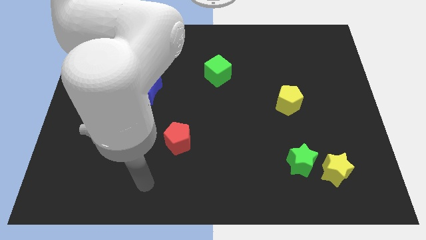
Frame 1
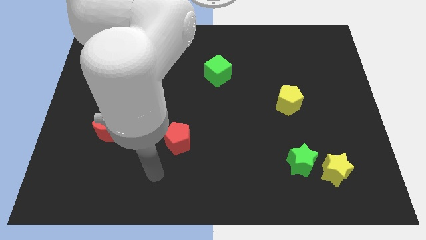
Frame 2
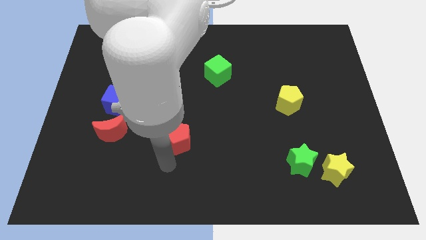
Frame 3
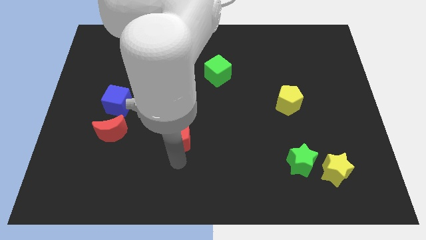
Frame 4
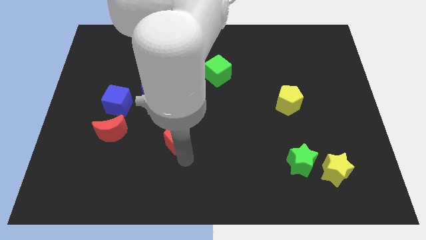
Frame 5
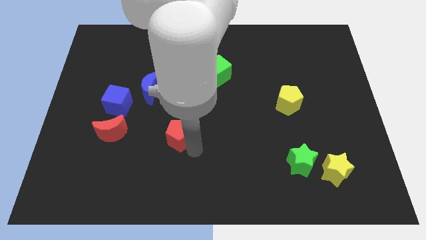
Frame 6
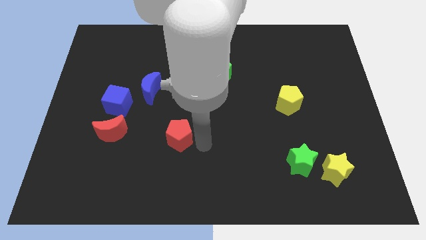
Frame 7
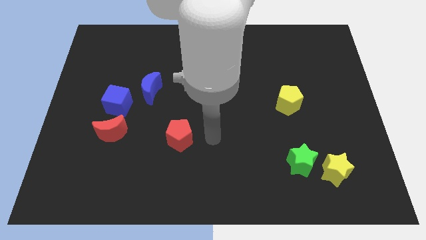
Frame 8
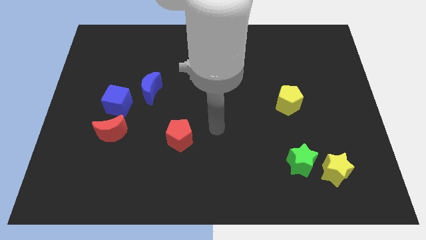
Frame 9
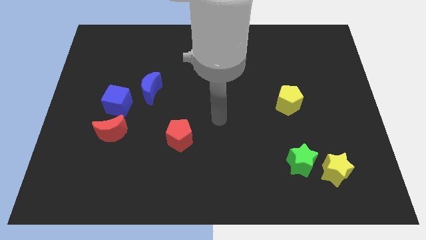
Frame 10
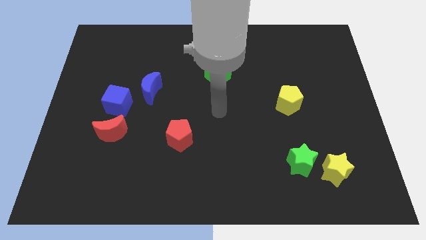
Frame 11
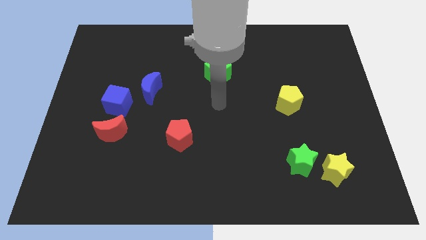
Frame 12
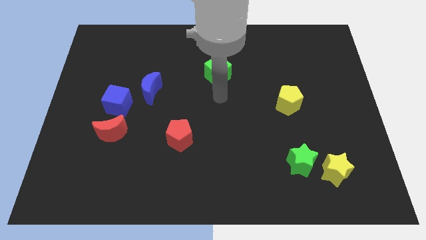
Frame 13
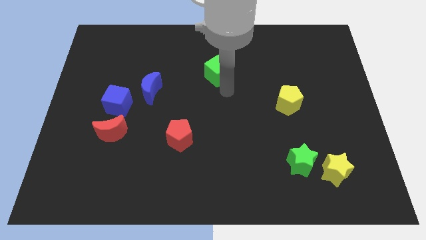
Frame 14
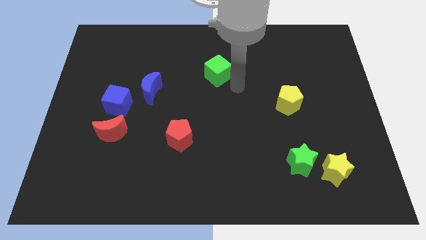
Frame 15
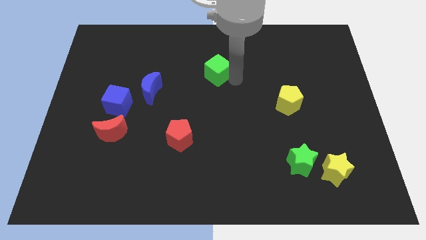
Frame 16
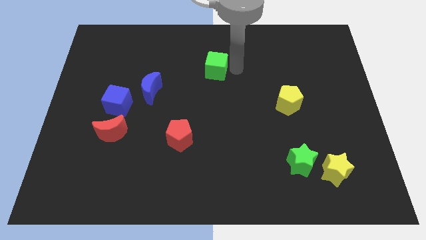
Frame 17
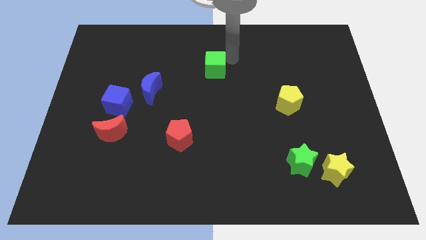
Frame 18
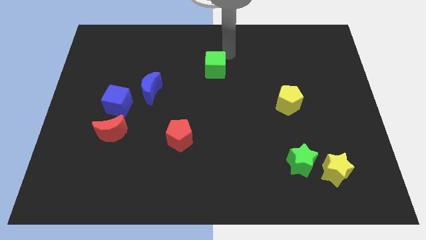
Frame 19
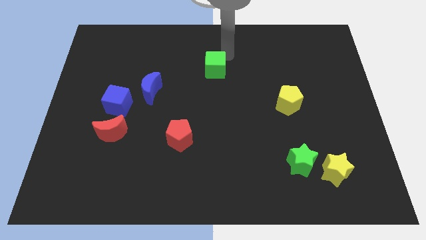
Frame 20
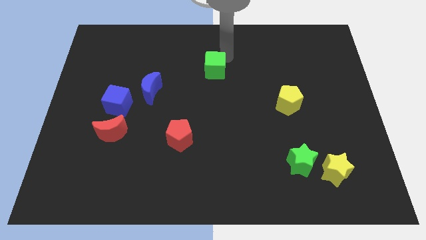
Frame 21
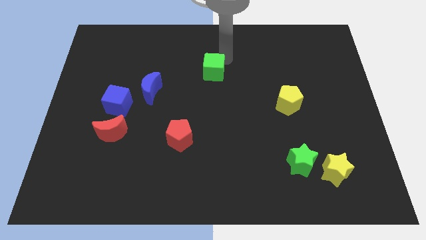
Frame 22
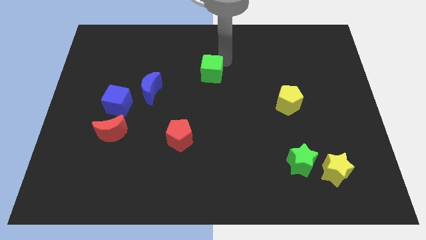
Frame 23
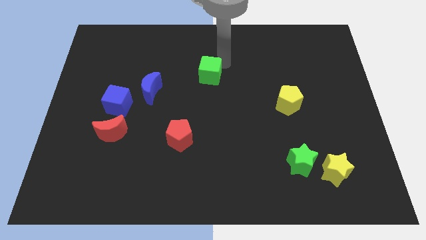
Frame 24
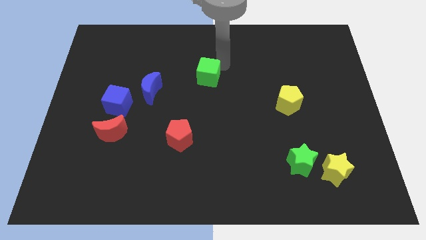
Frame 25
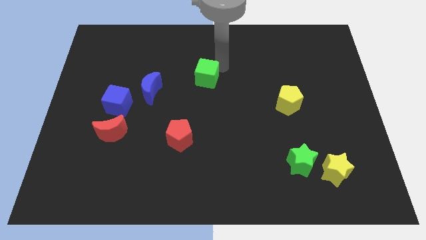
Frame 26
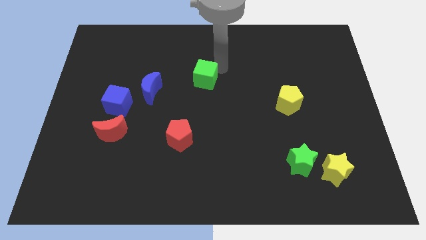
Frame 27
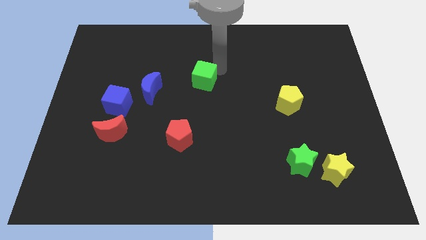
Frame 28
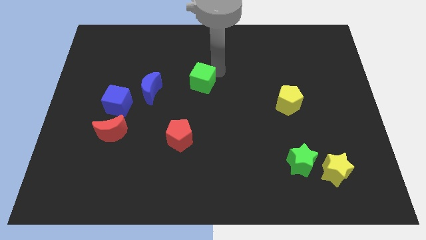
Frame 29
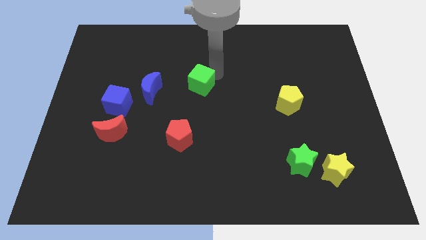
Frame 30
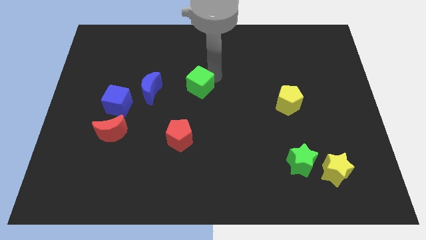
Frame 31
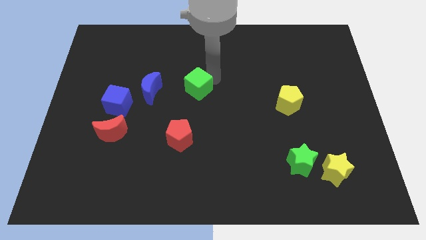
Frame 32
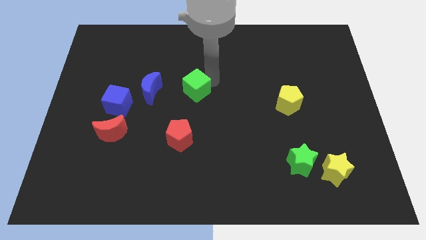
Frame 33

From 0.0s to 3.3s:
move the green cube downwards and then to the left a little bit

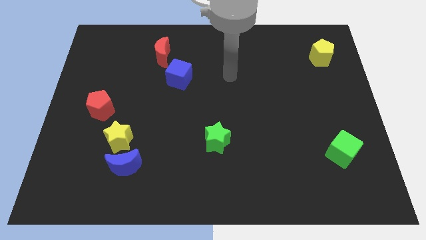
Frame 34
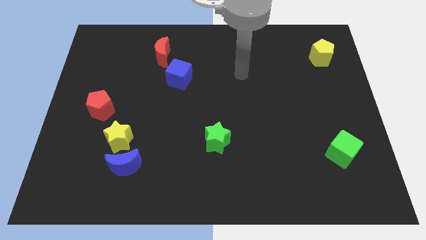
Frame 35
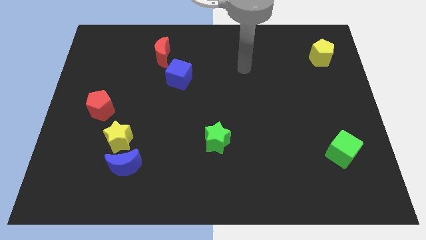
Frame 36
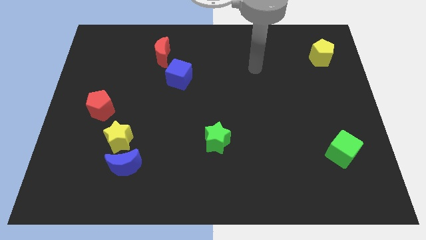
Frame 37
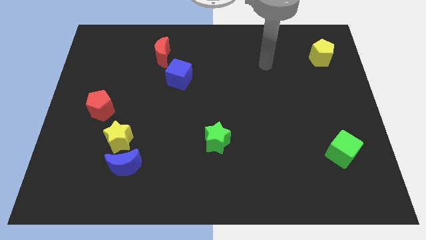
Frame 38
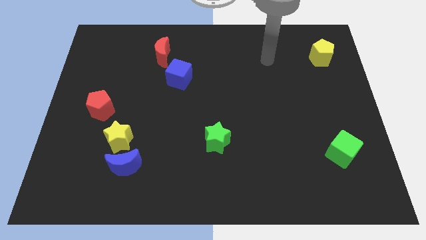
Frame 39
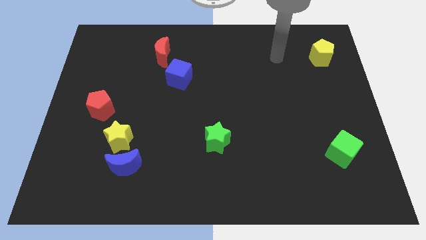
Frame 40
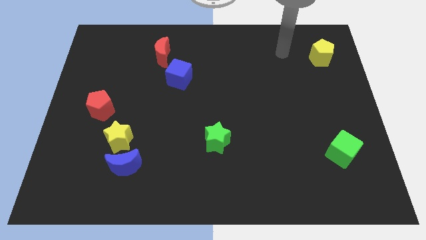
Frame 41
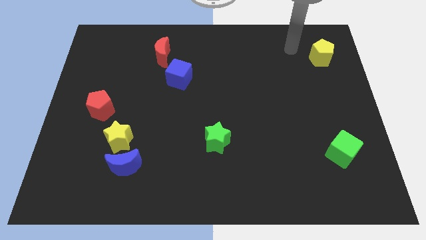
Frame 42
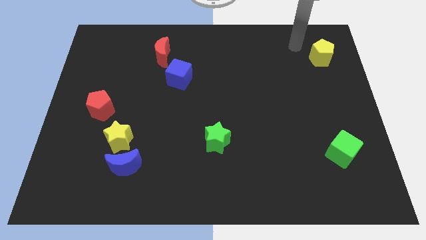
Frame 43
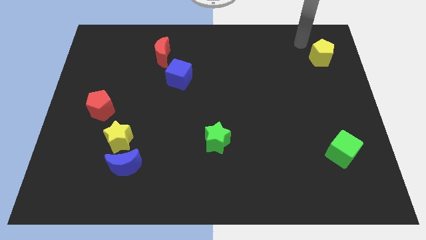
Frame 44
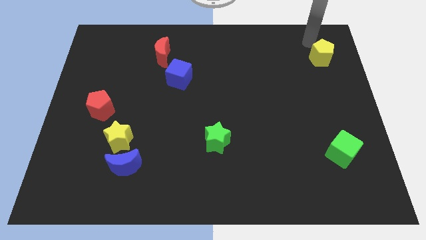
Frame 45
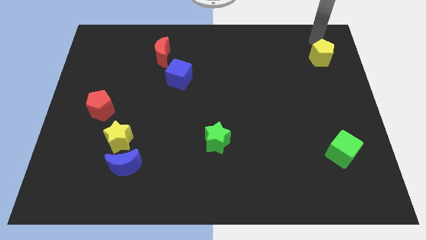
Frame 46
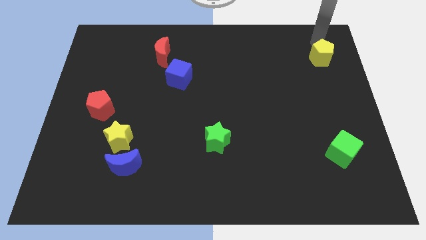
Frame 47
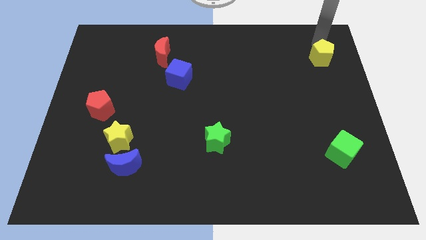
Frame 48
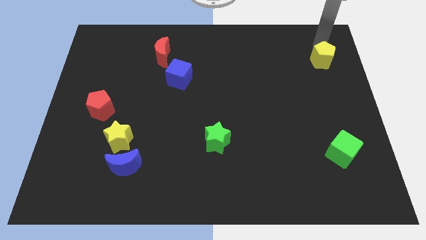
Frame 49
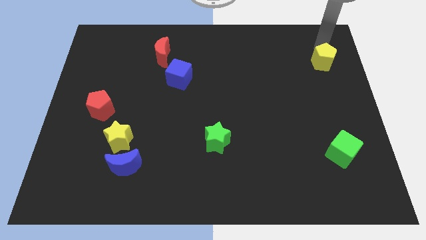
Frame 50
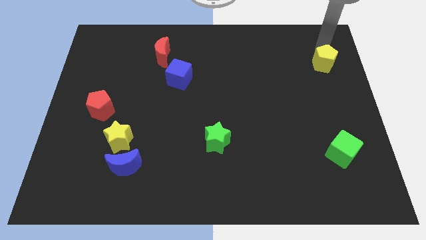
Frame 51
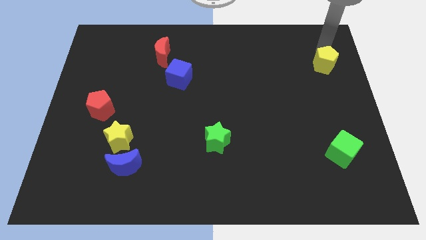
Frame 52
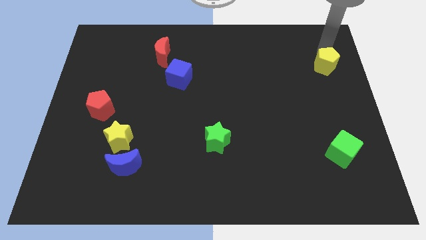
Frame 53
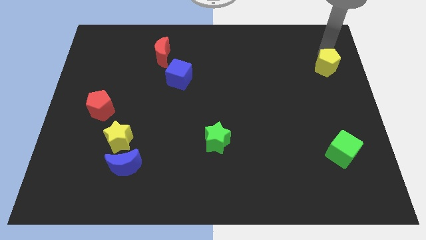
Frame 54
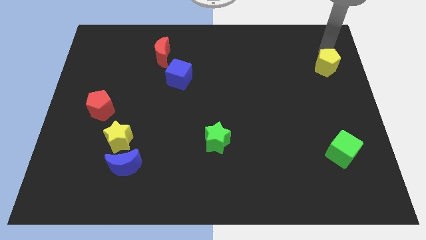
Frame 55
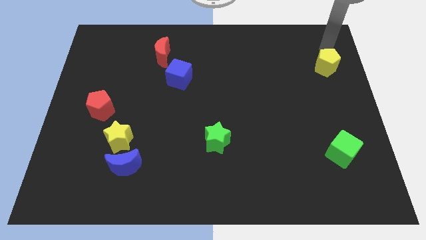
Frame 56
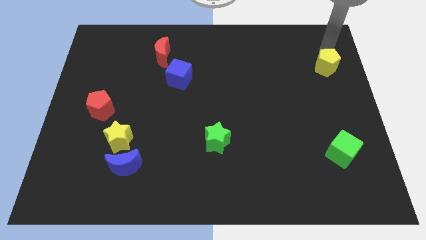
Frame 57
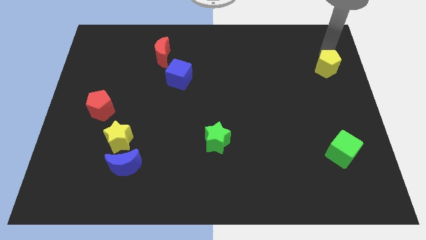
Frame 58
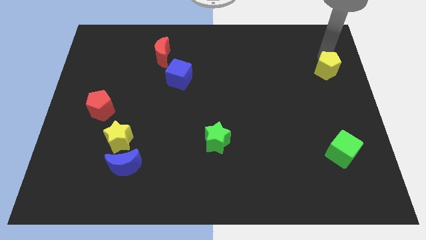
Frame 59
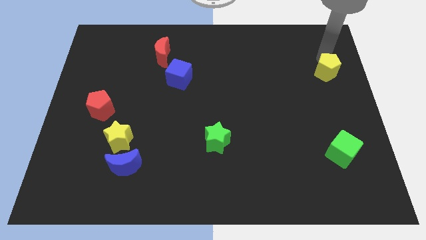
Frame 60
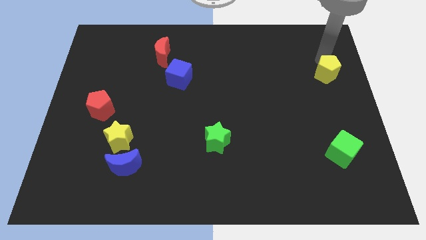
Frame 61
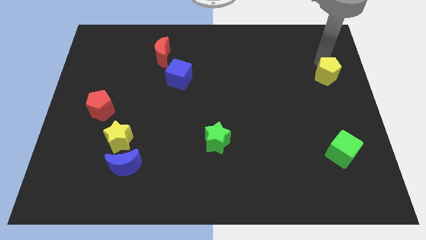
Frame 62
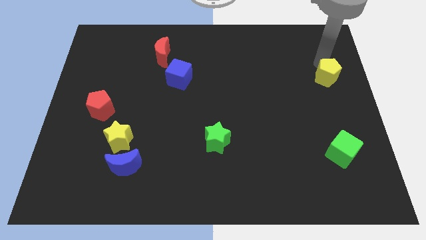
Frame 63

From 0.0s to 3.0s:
slightly push the yellow pentagon downwards

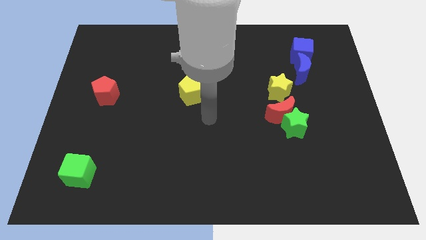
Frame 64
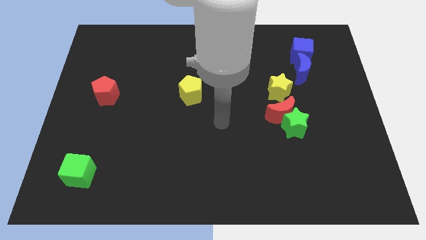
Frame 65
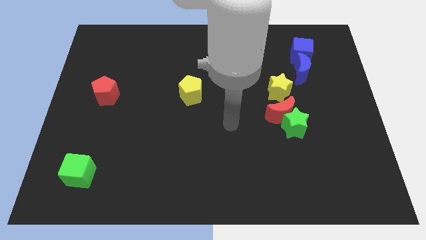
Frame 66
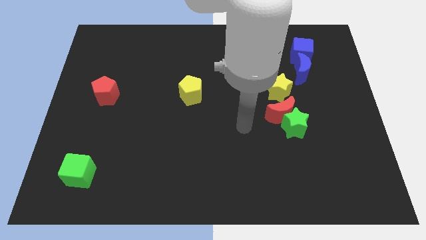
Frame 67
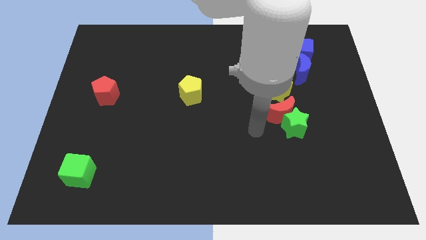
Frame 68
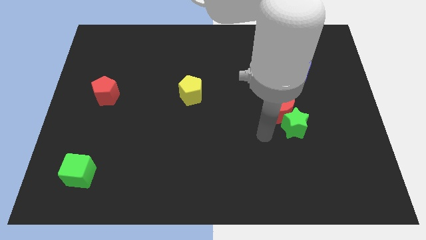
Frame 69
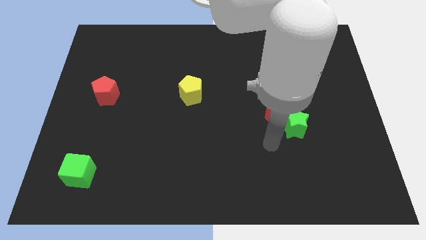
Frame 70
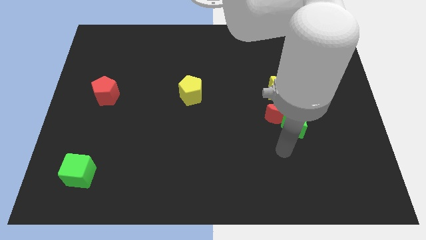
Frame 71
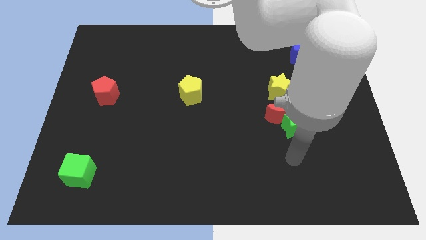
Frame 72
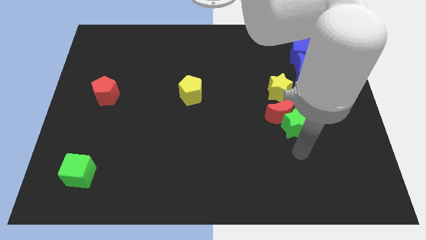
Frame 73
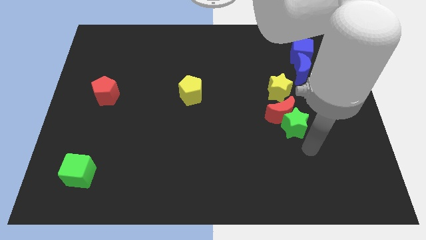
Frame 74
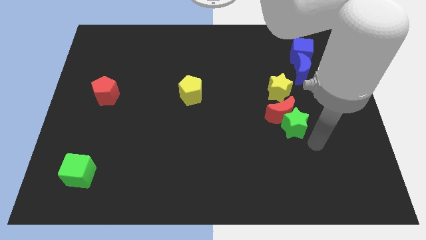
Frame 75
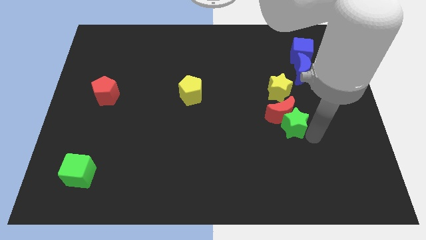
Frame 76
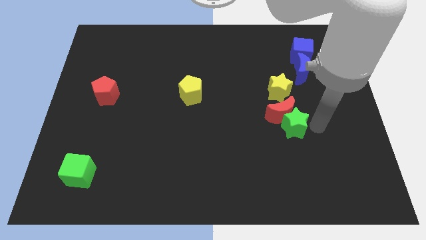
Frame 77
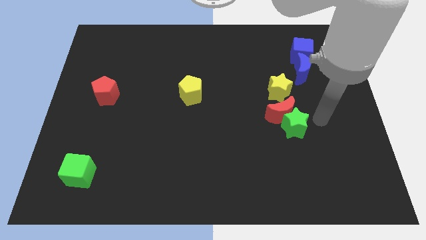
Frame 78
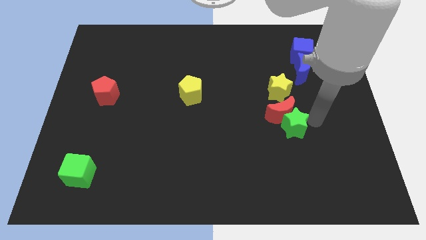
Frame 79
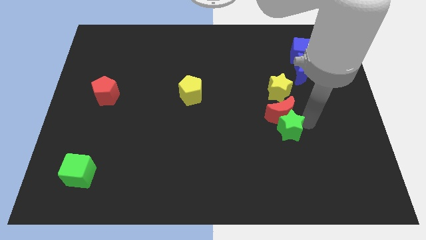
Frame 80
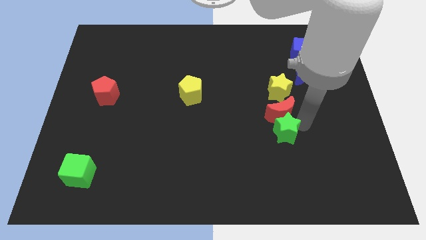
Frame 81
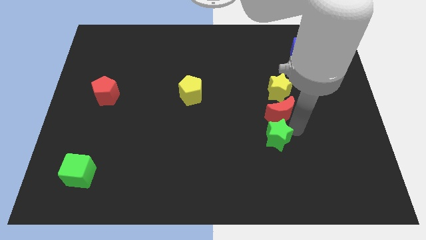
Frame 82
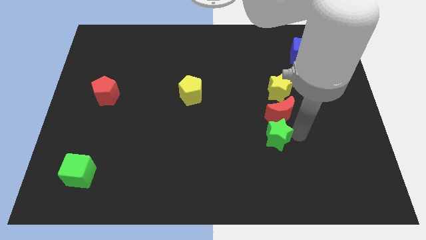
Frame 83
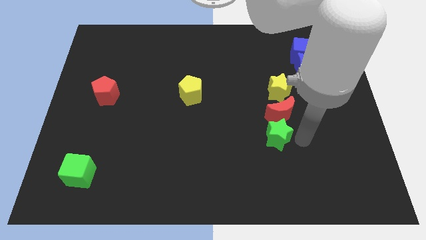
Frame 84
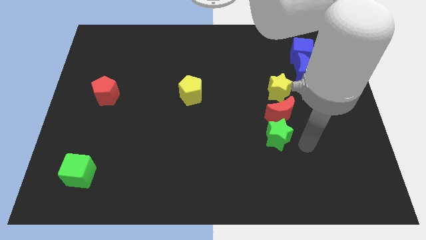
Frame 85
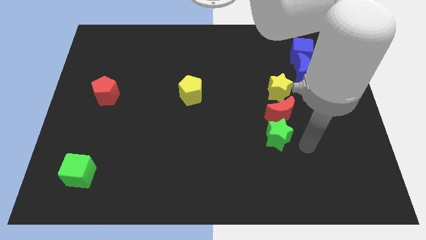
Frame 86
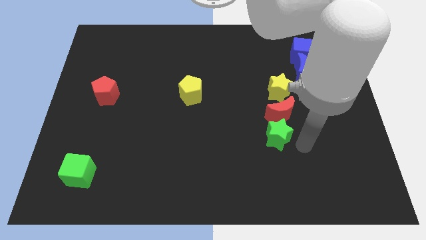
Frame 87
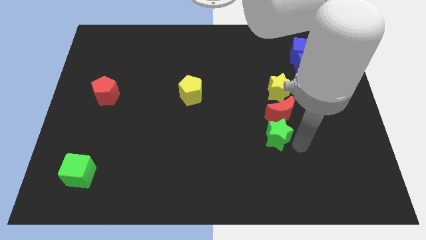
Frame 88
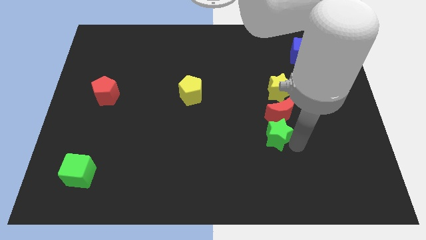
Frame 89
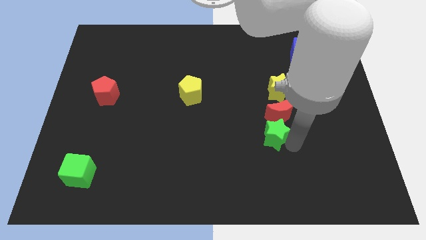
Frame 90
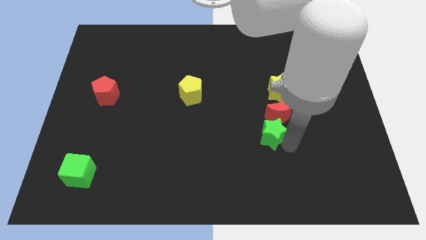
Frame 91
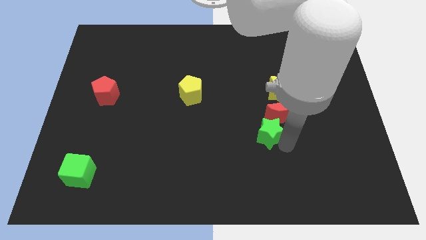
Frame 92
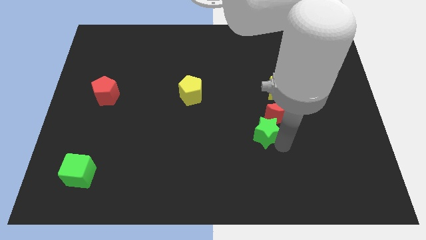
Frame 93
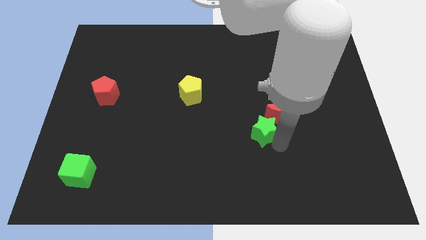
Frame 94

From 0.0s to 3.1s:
push the green star slightly to the left
